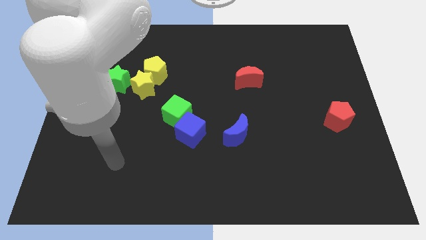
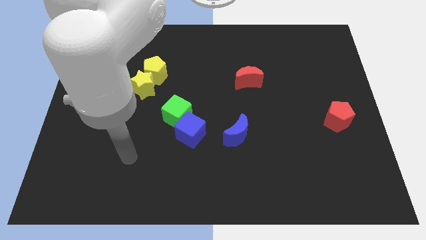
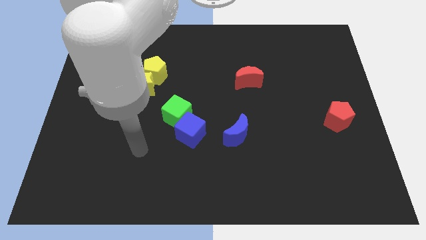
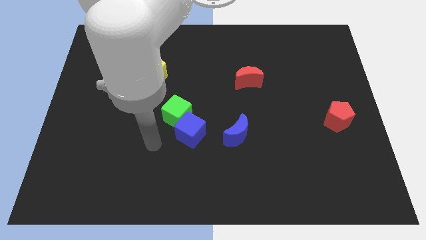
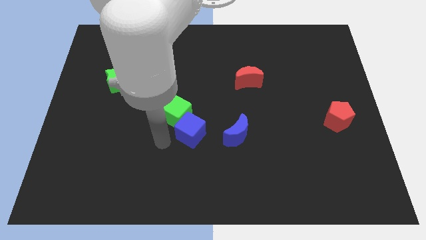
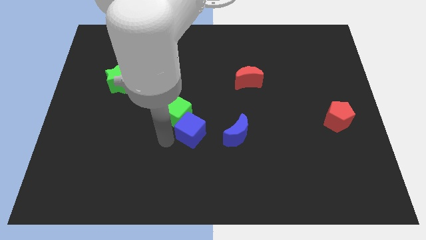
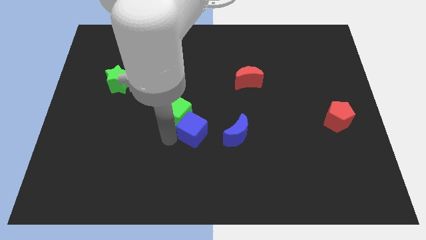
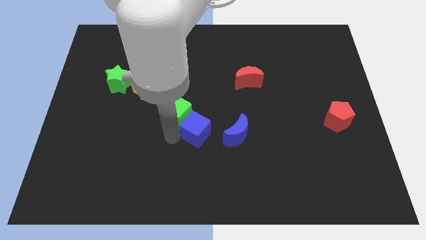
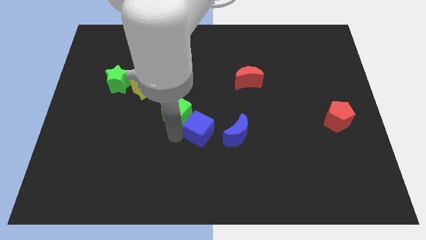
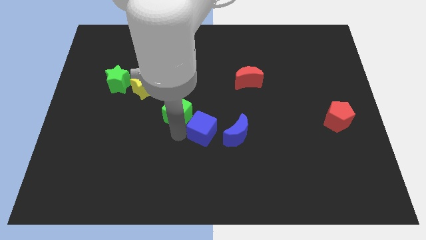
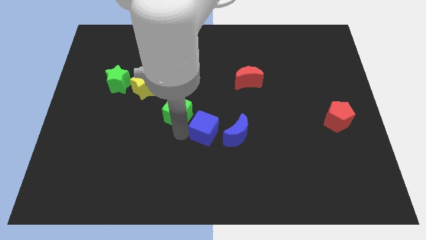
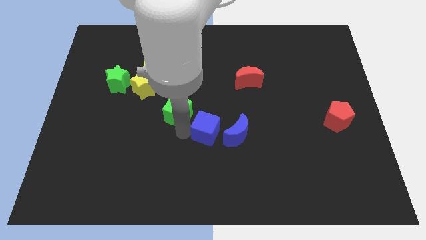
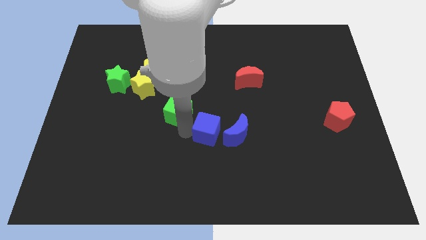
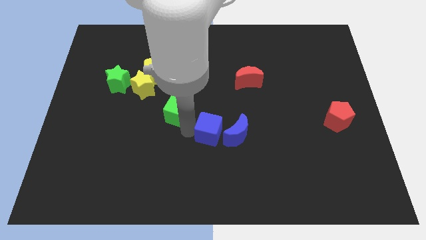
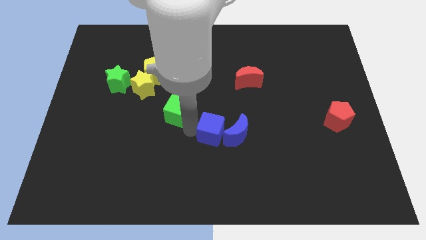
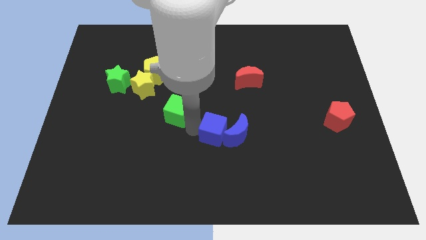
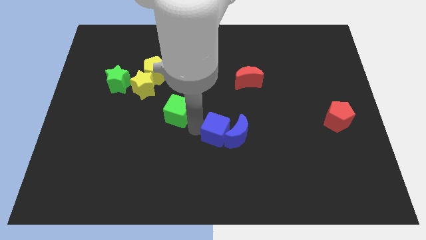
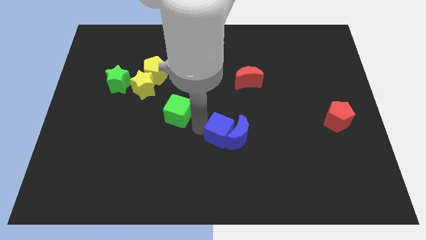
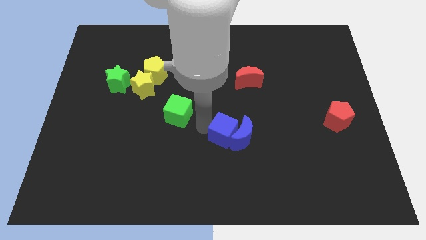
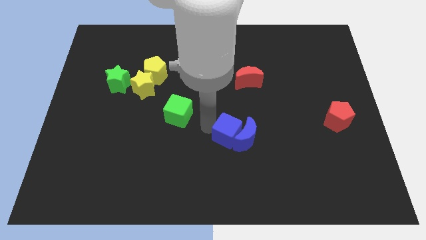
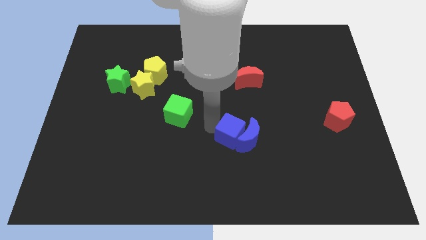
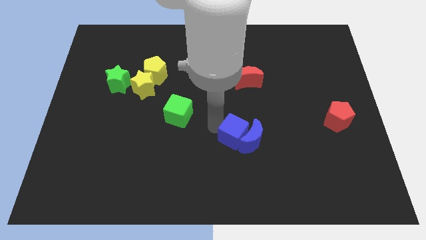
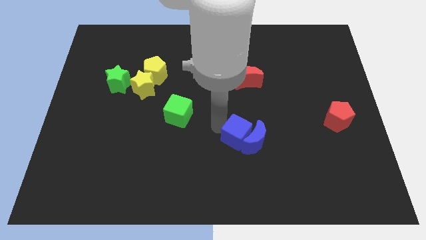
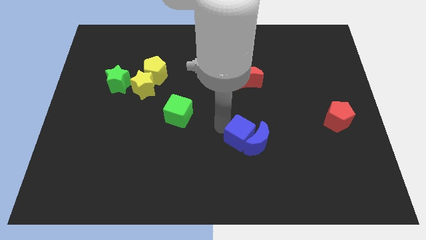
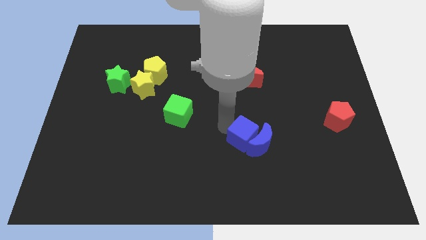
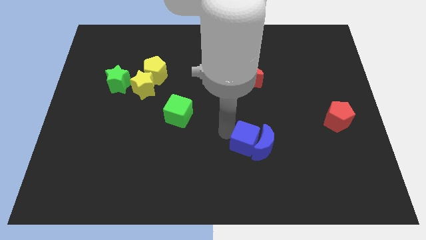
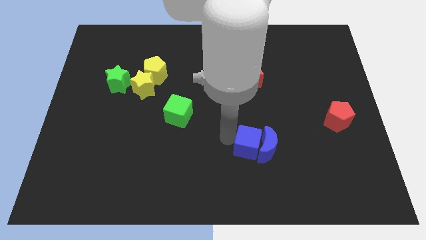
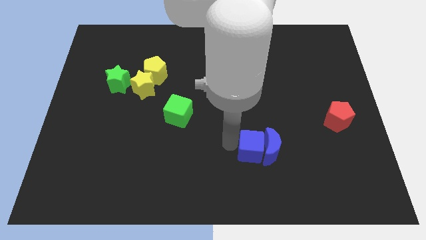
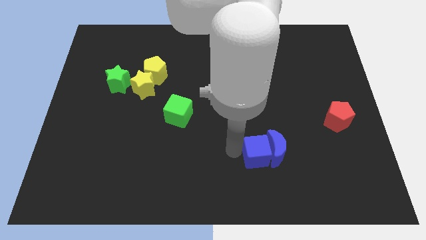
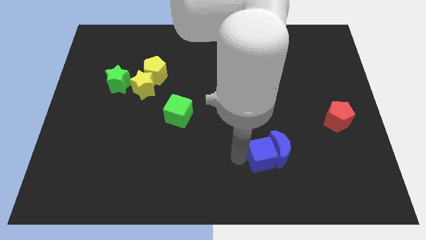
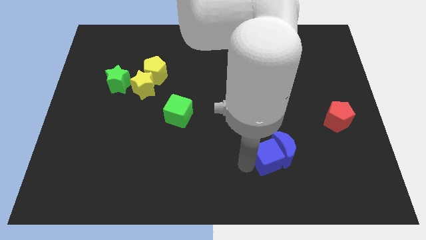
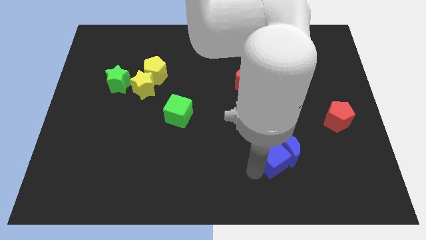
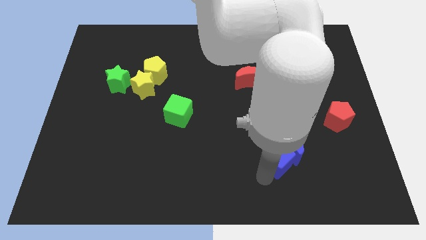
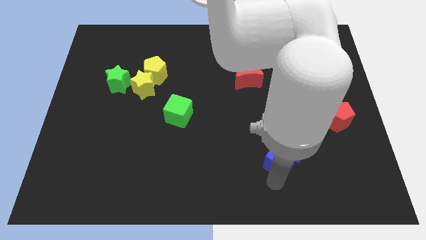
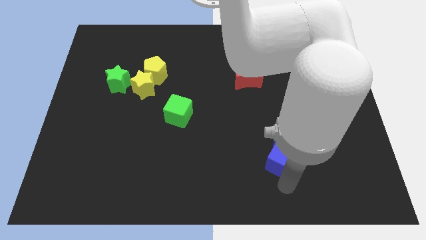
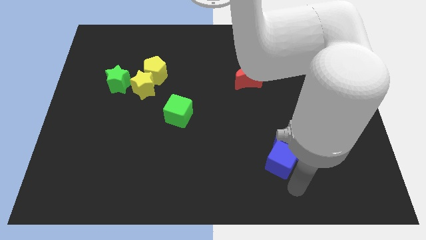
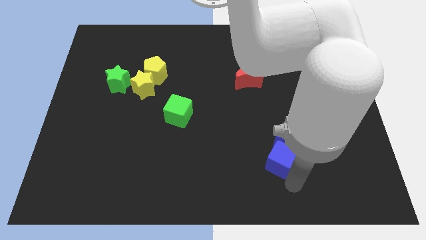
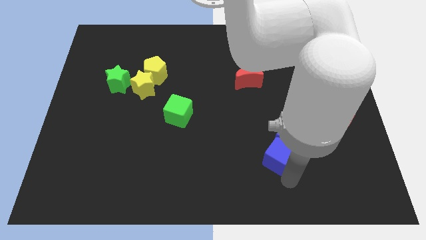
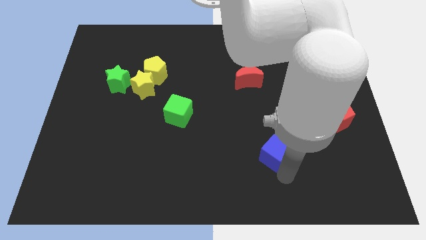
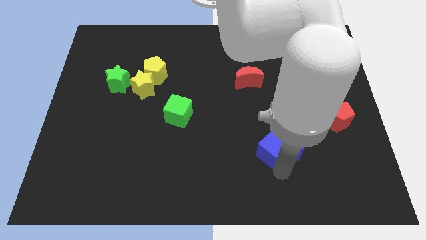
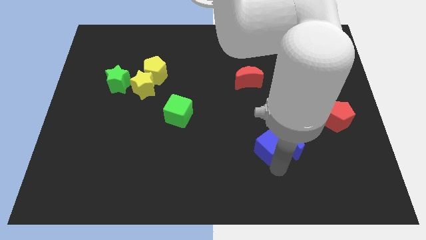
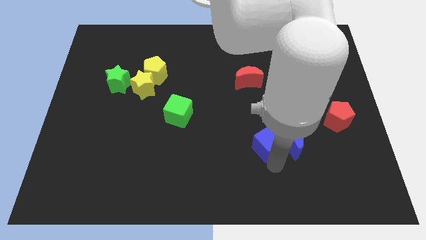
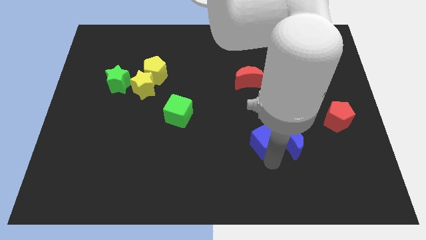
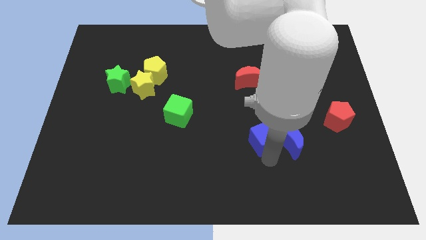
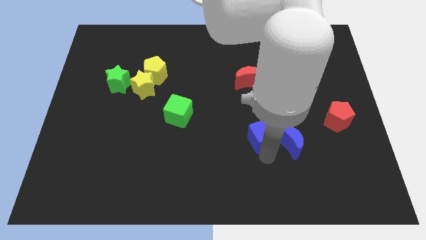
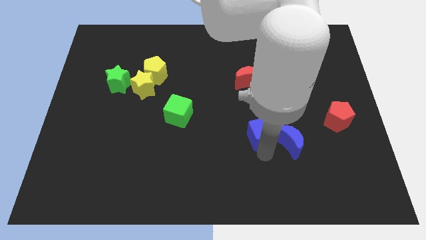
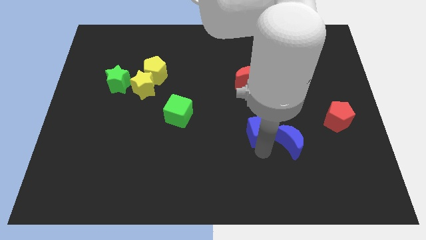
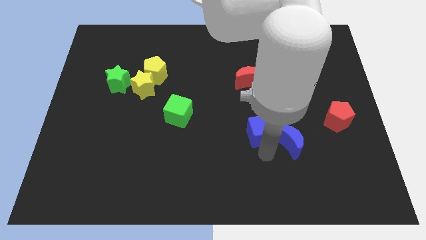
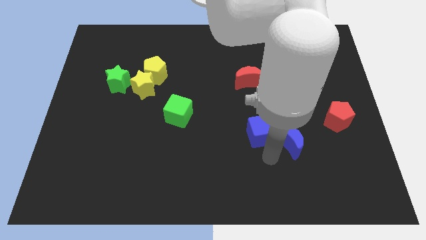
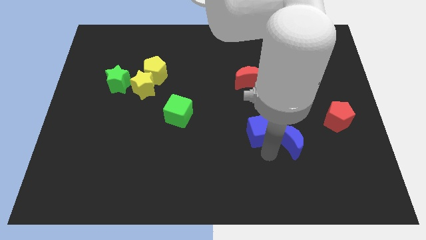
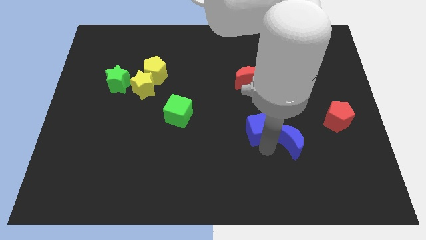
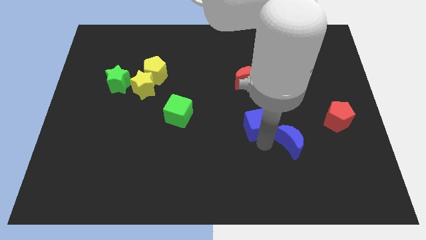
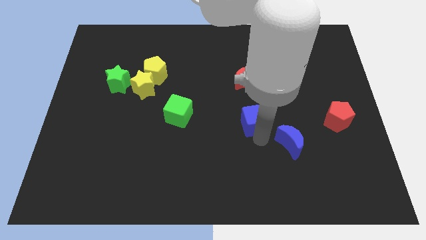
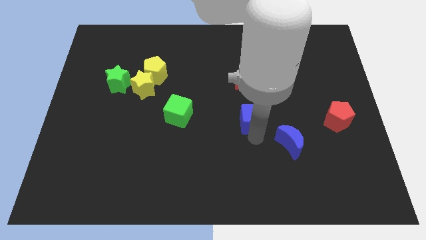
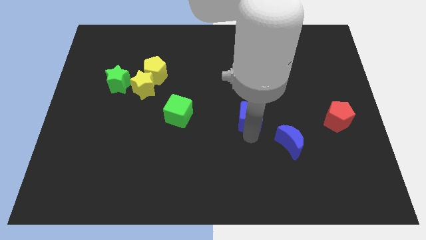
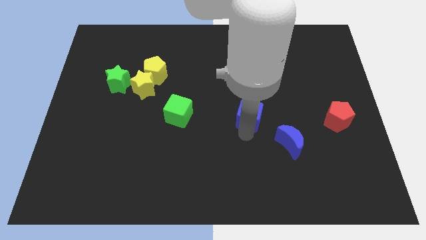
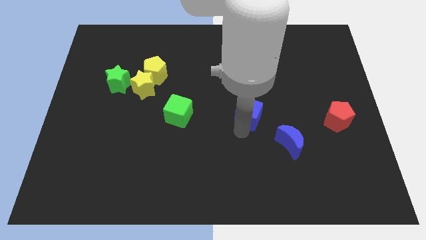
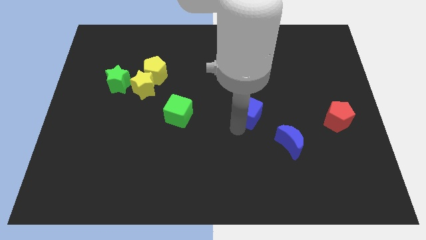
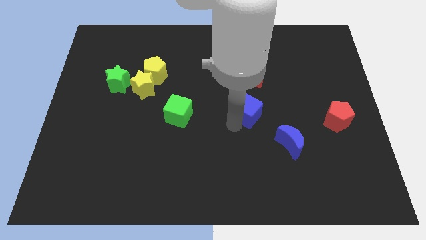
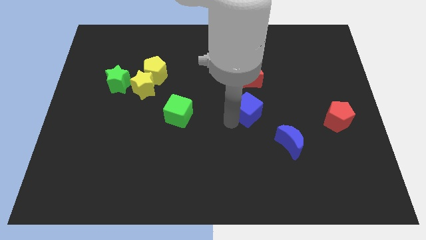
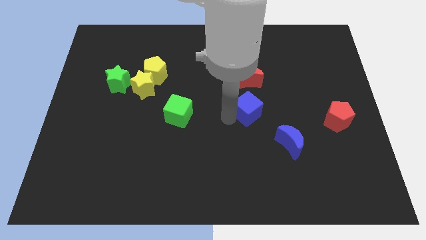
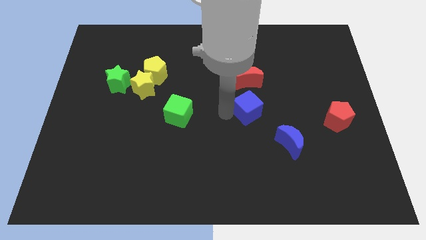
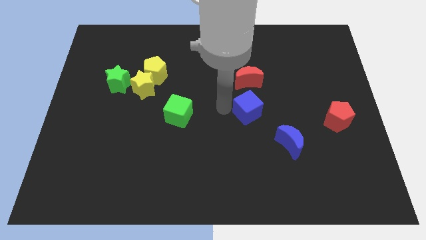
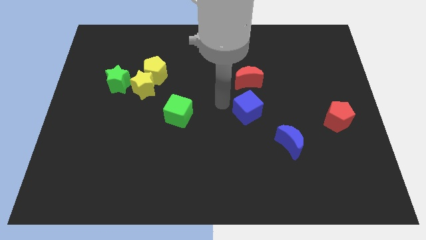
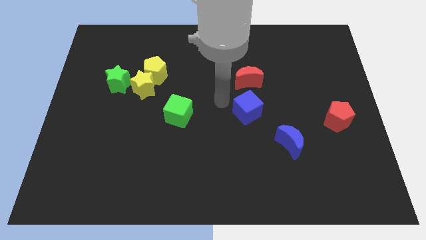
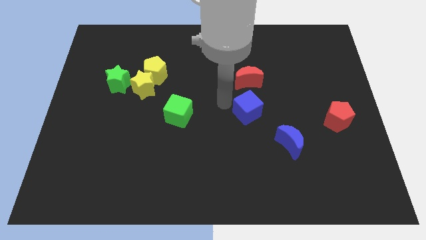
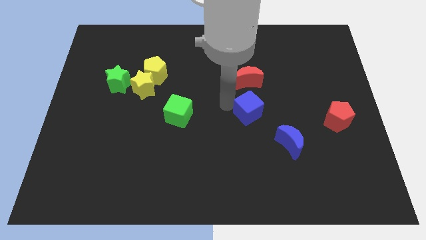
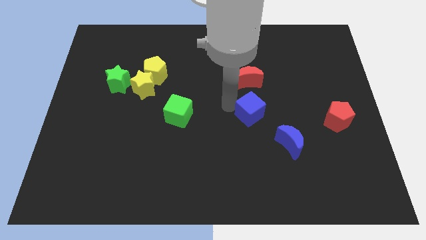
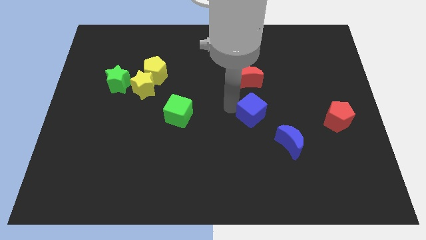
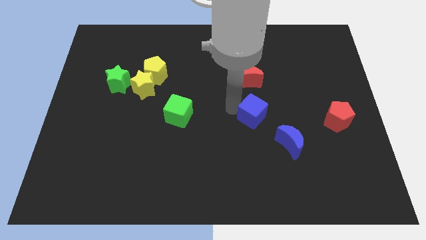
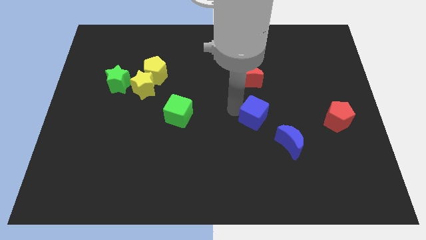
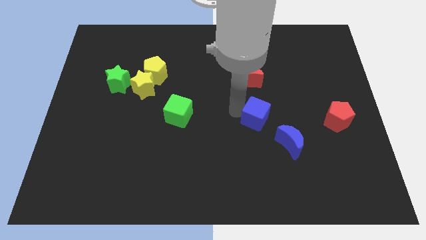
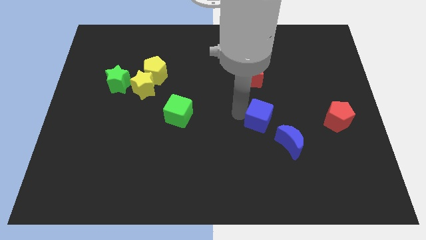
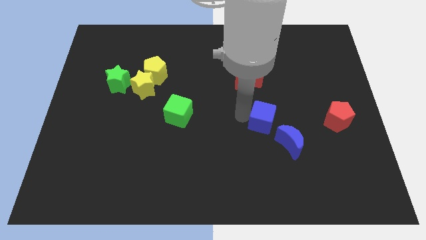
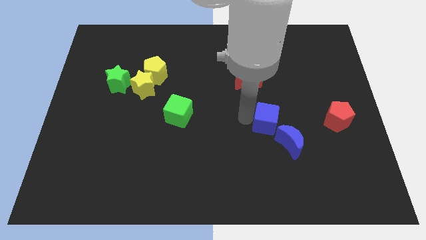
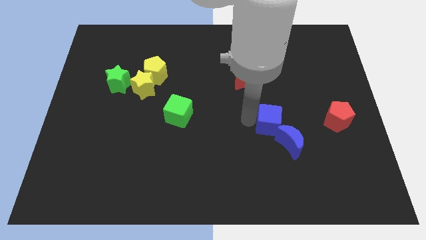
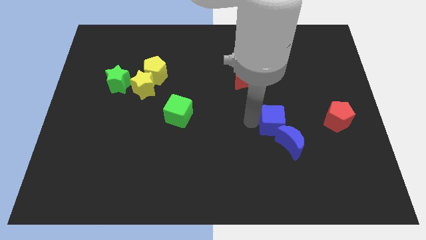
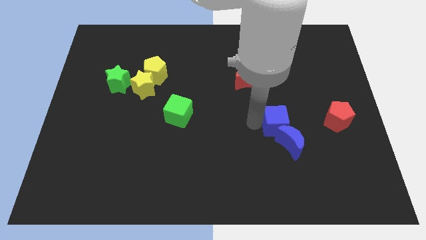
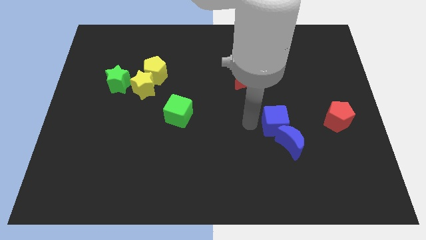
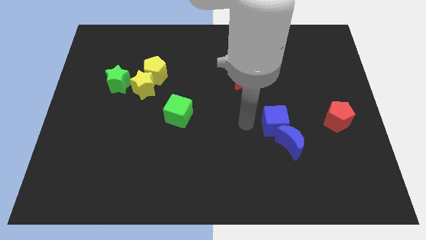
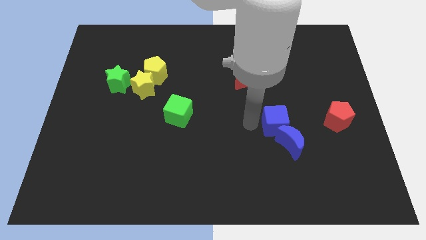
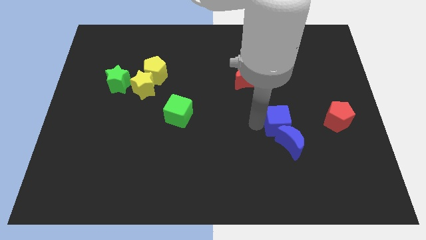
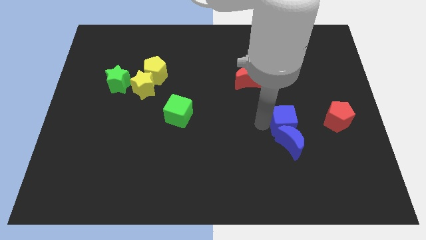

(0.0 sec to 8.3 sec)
move the blue cube right
